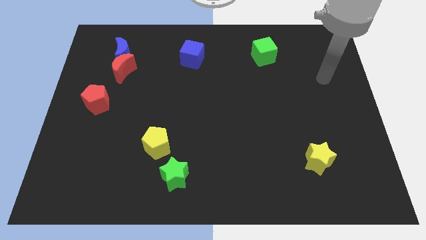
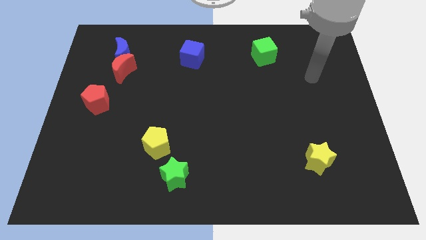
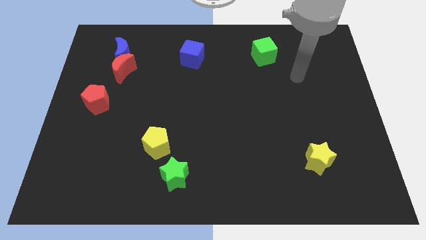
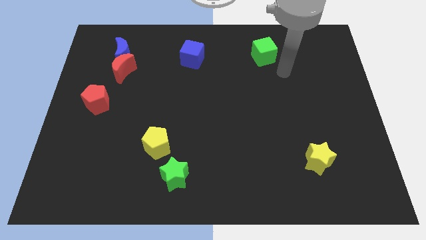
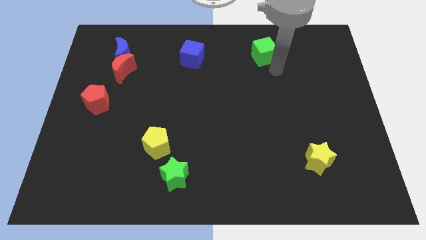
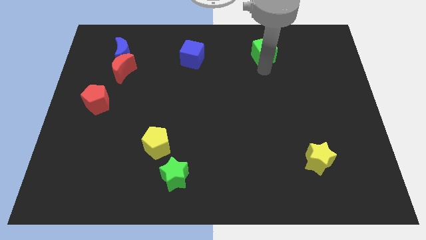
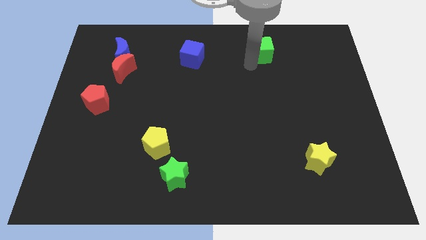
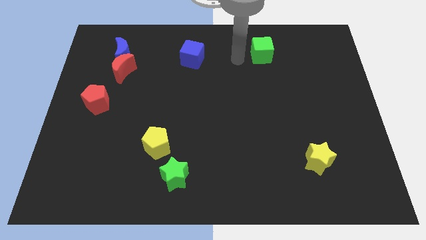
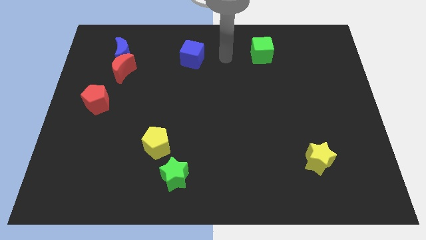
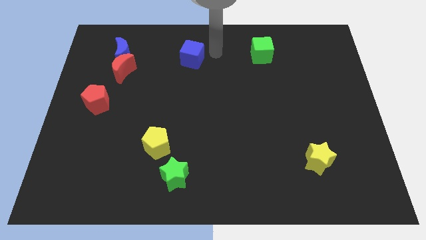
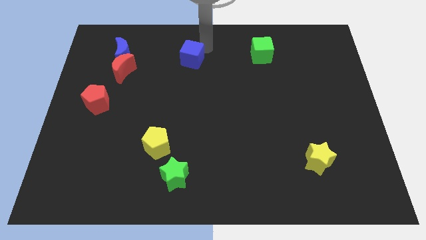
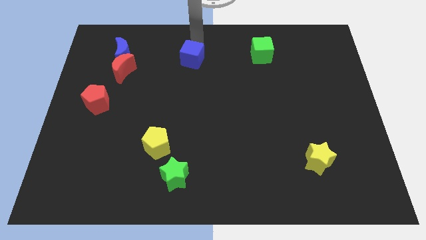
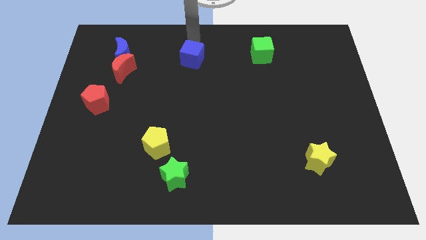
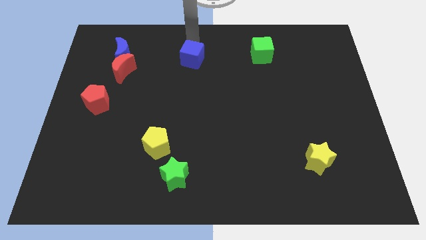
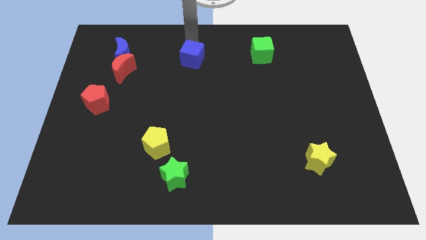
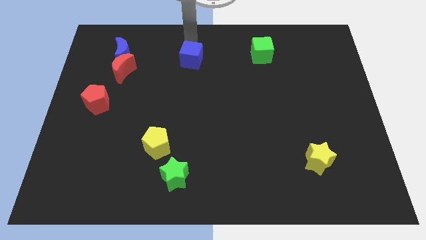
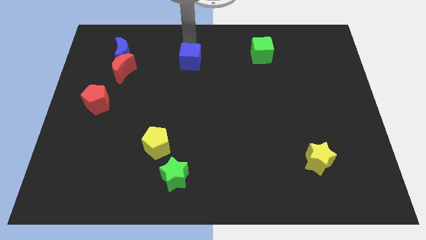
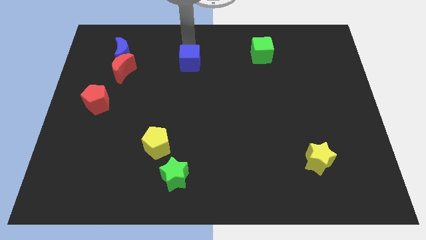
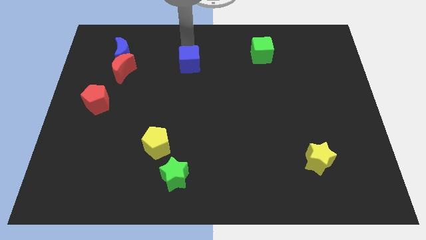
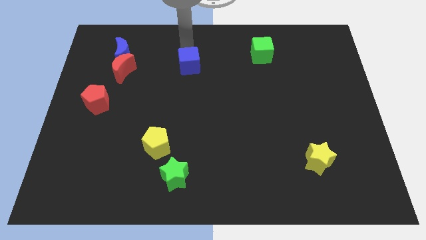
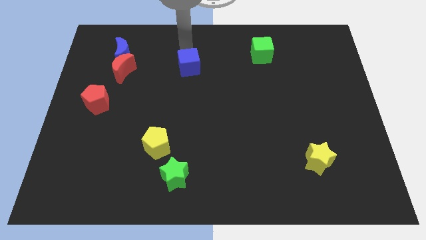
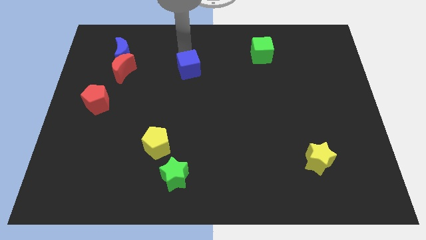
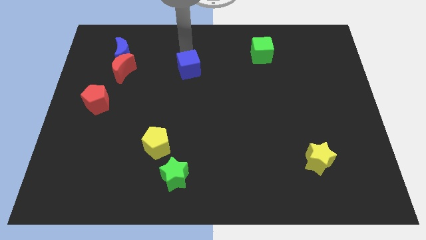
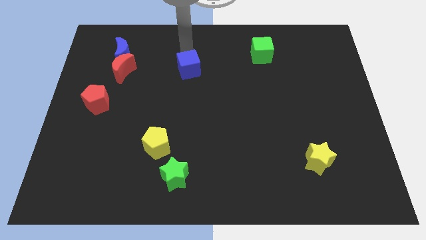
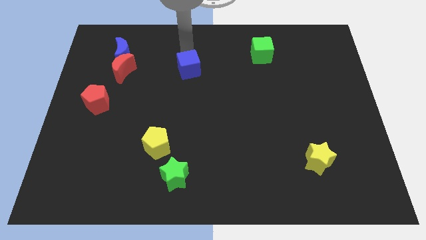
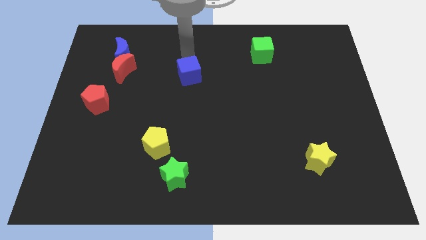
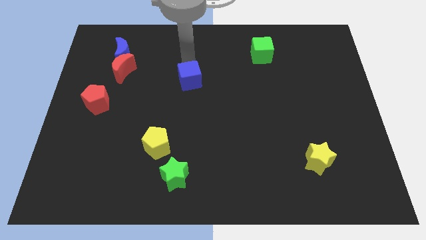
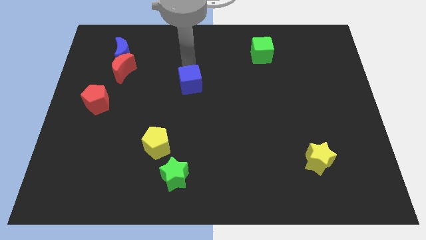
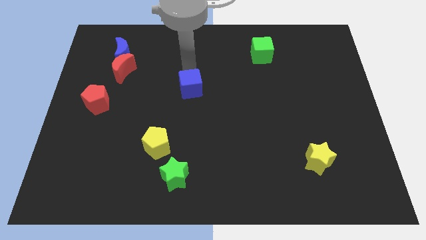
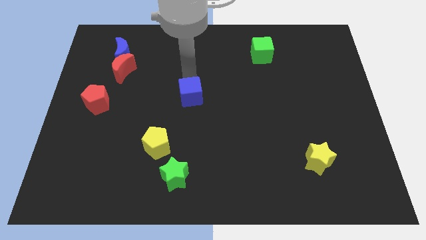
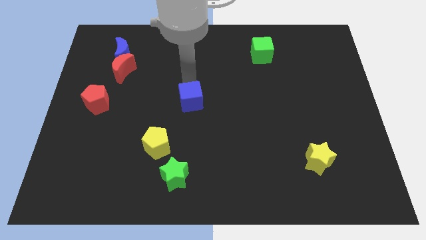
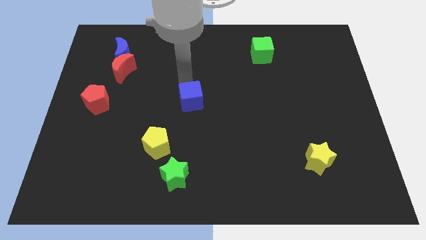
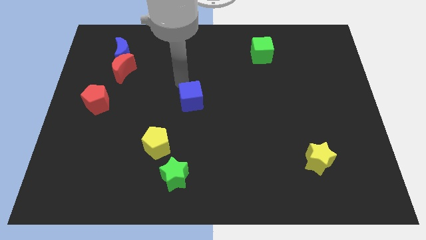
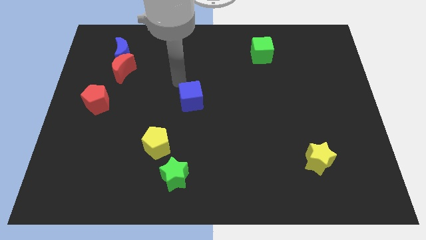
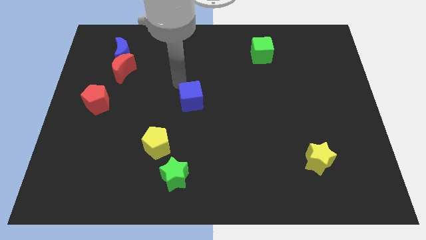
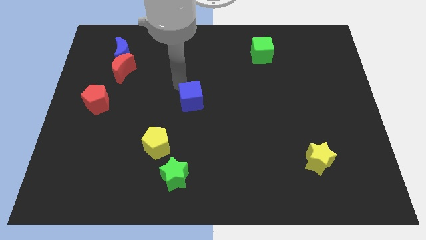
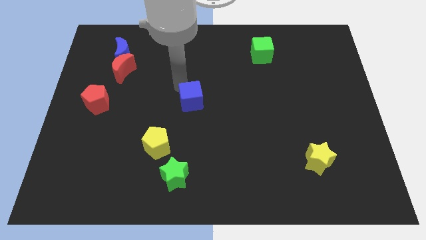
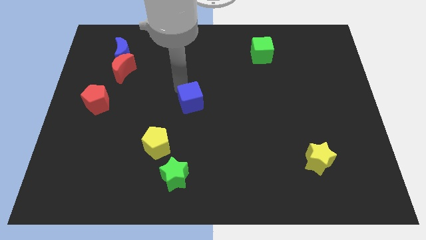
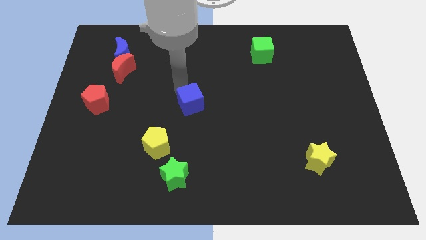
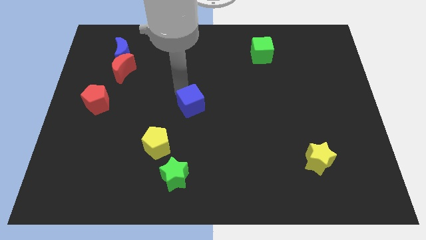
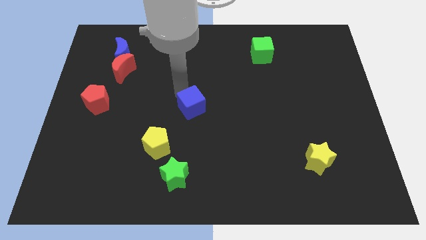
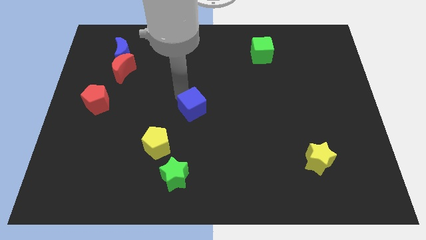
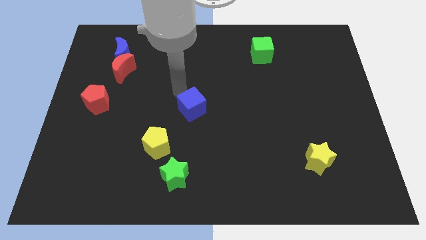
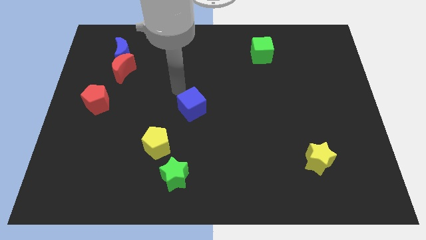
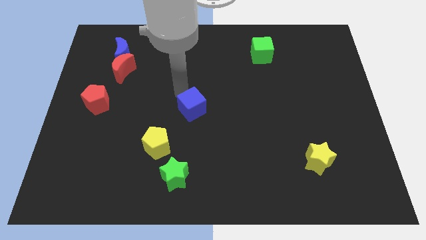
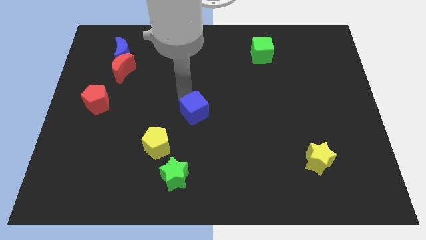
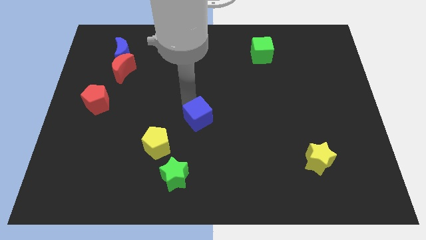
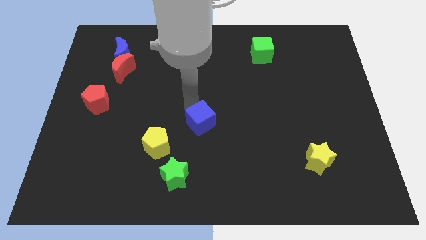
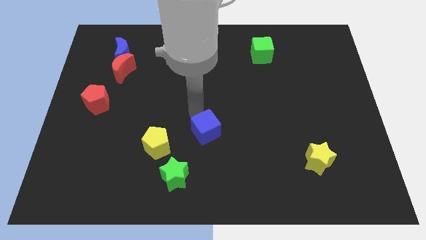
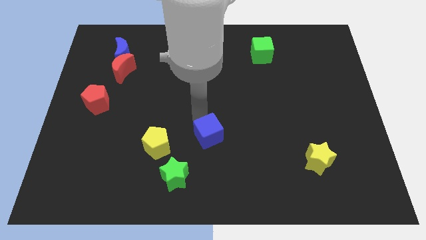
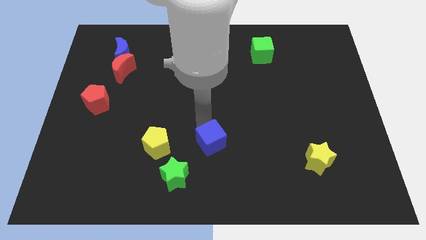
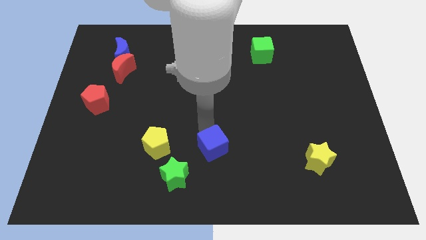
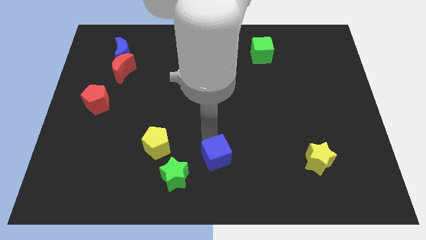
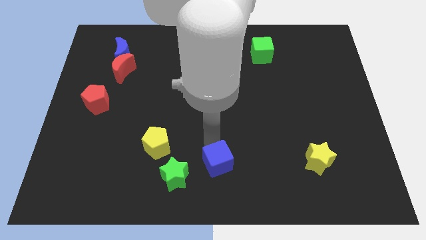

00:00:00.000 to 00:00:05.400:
put the blue cube just right of the green star

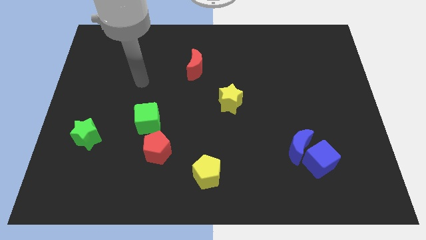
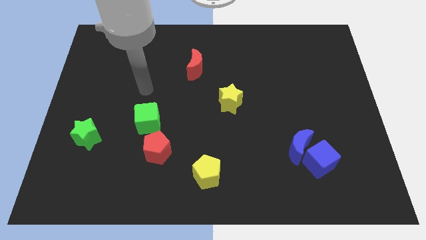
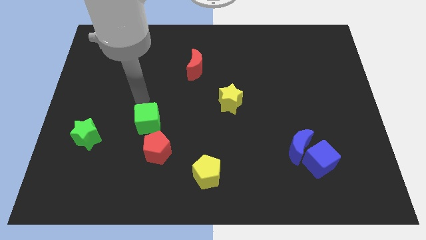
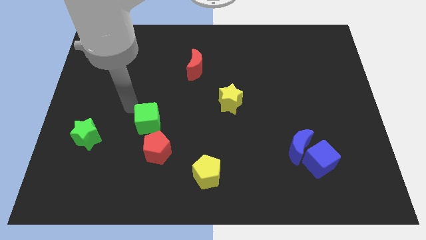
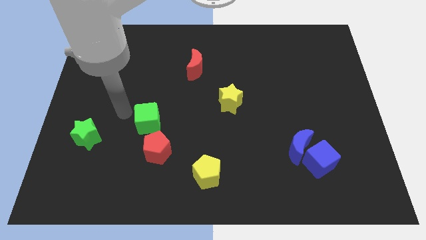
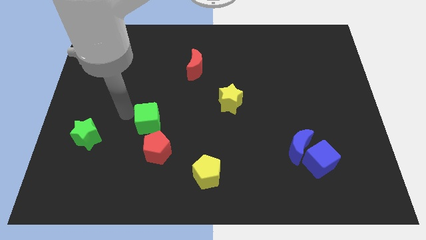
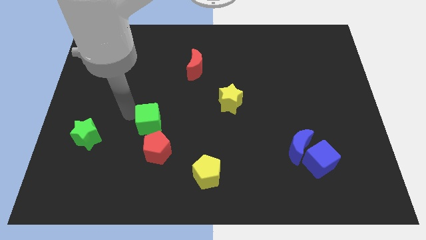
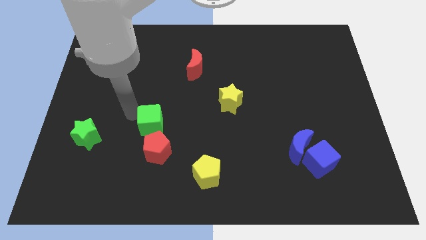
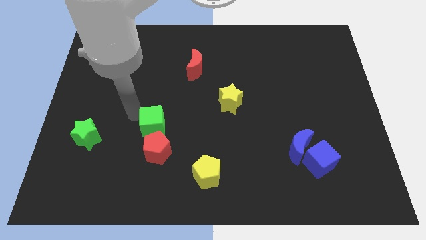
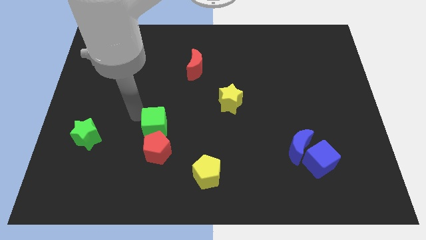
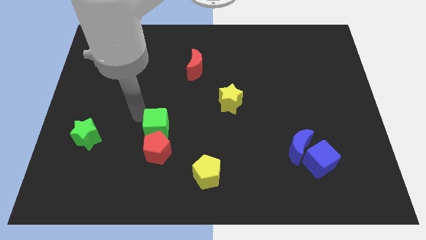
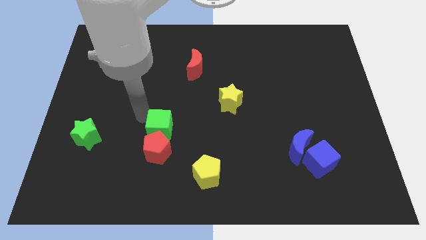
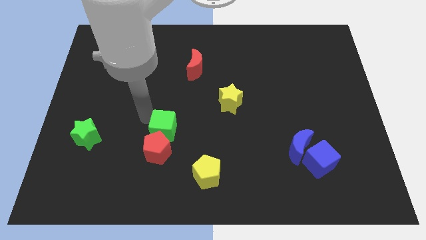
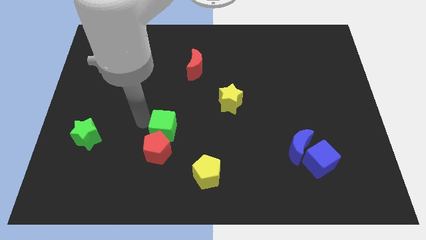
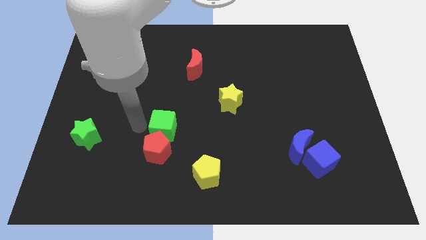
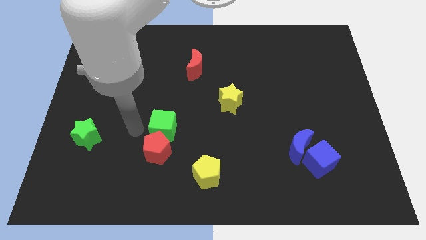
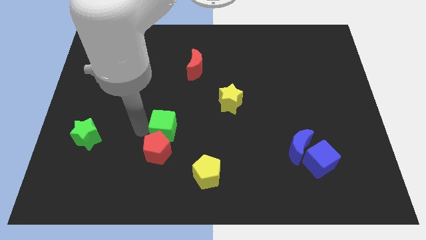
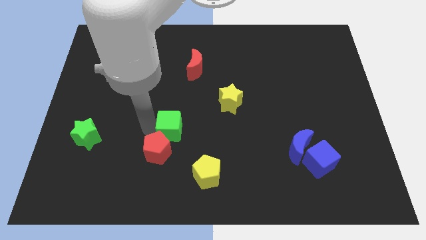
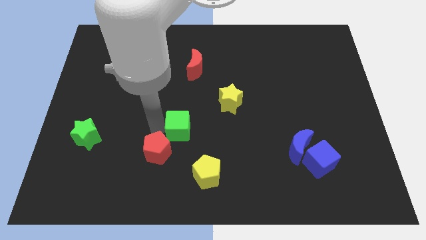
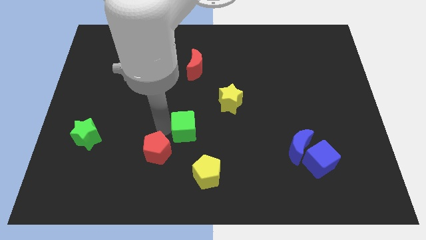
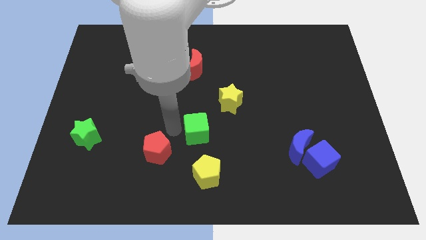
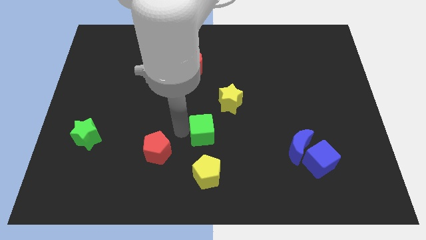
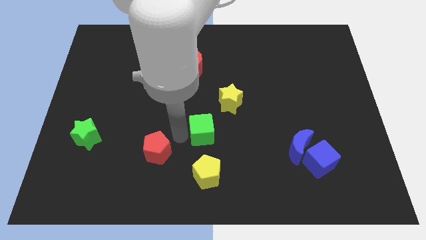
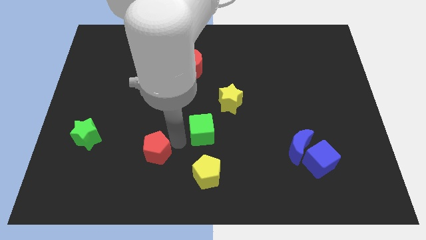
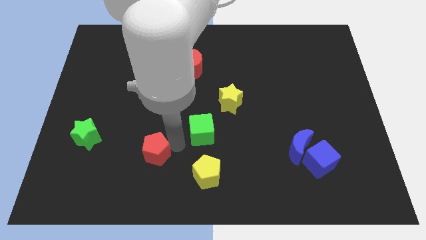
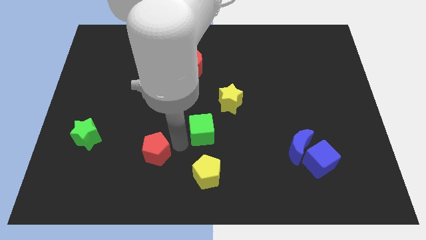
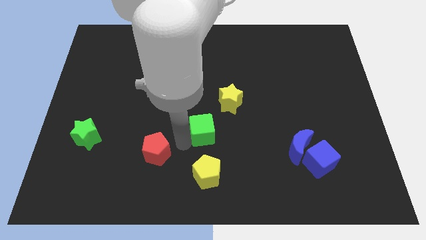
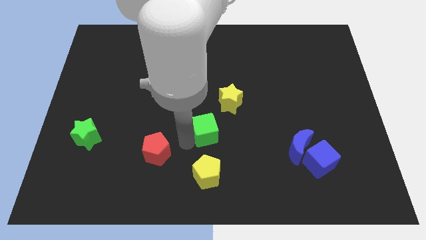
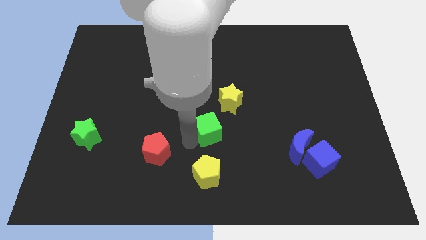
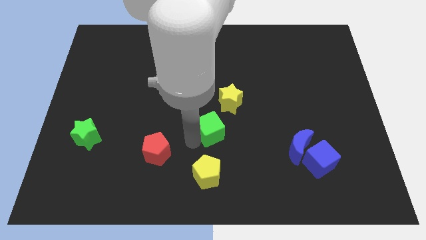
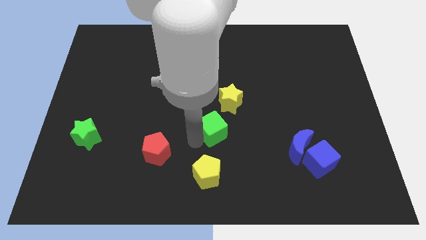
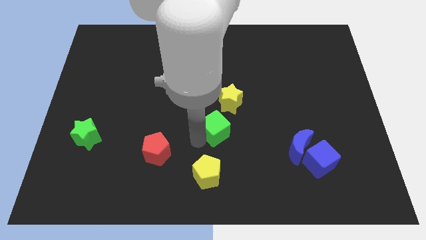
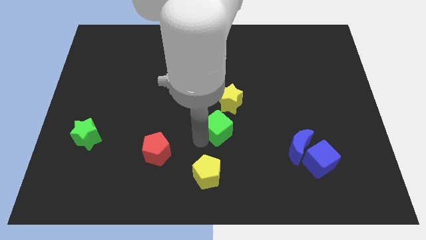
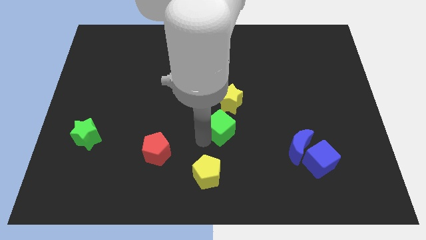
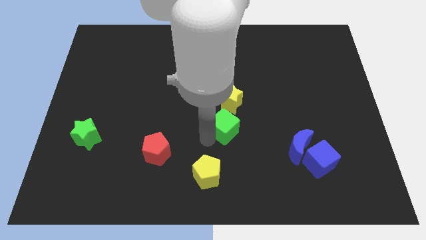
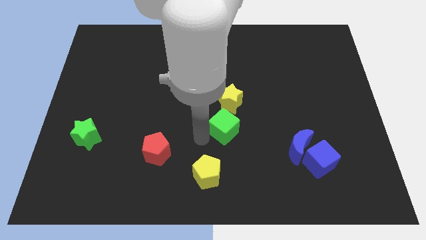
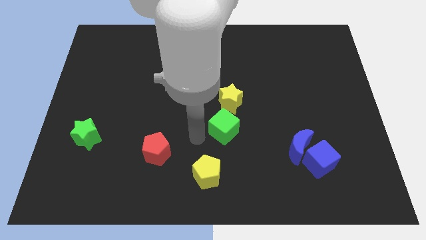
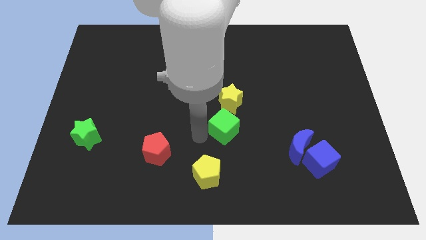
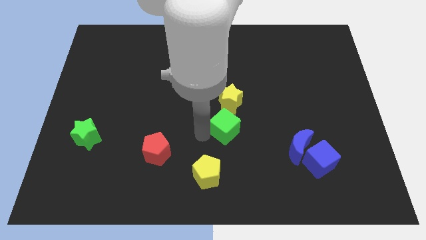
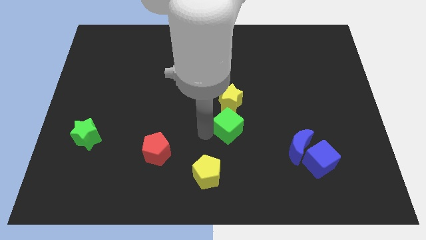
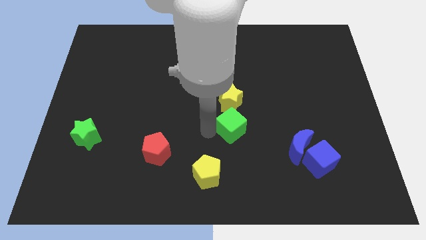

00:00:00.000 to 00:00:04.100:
put the green cube to the bottom right side of the yellow star
